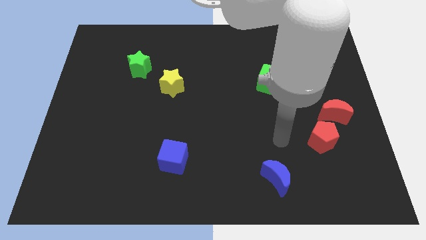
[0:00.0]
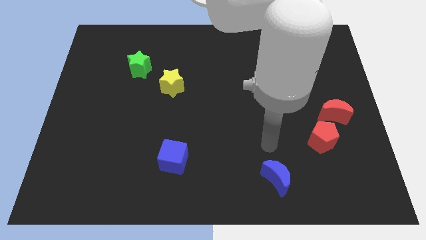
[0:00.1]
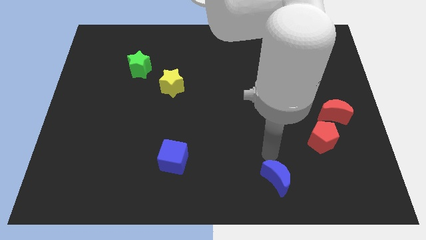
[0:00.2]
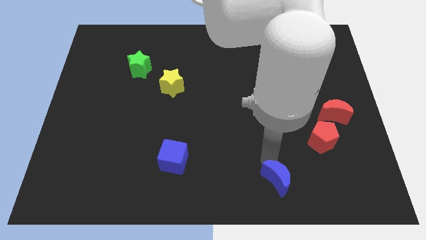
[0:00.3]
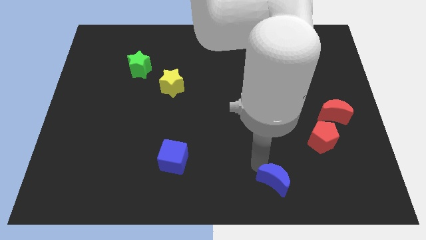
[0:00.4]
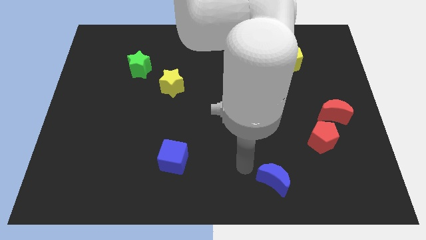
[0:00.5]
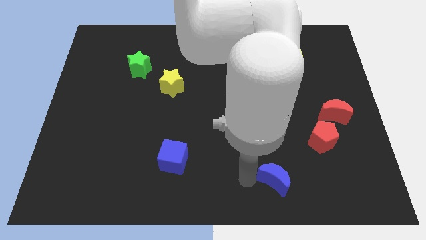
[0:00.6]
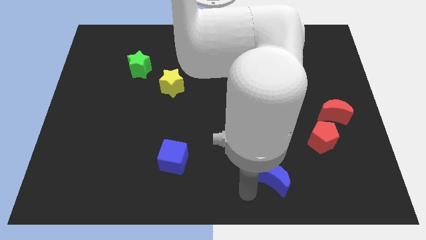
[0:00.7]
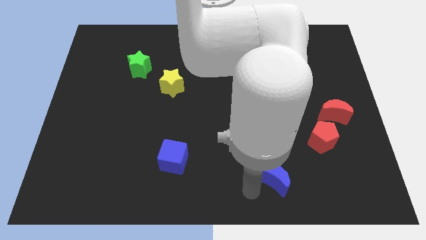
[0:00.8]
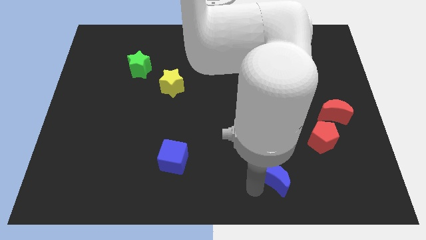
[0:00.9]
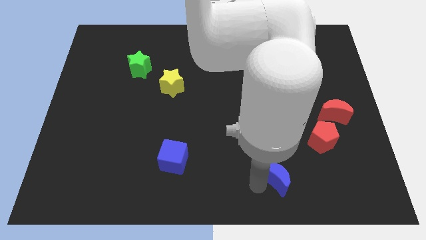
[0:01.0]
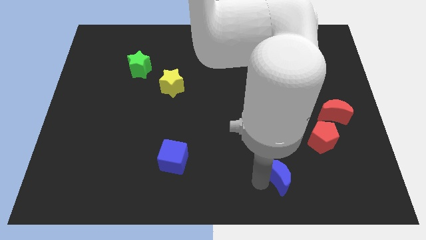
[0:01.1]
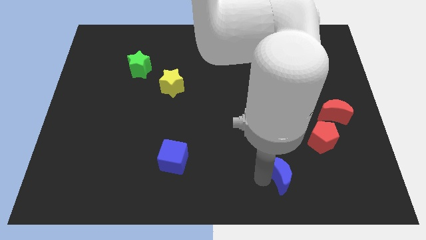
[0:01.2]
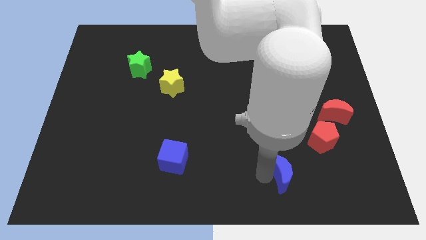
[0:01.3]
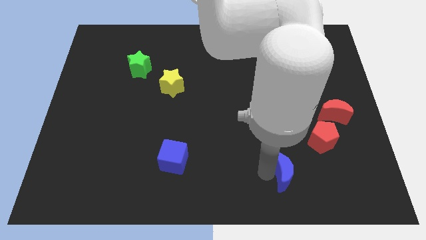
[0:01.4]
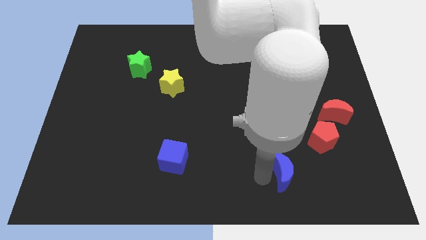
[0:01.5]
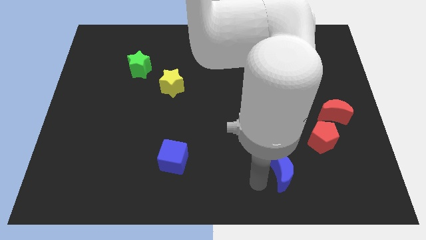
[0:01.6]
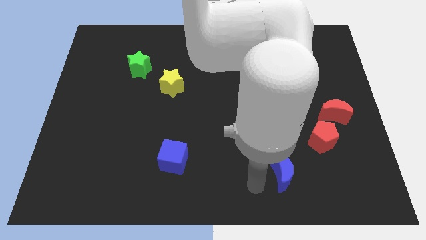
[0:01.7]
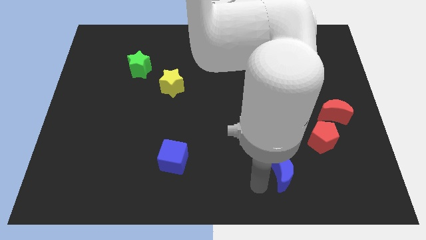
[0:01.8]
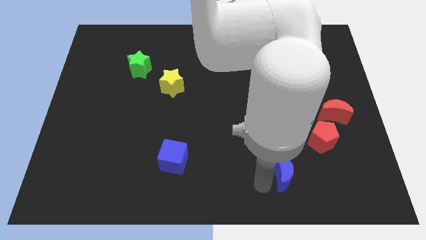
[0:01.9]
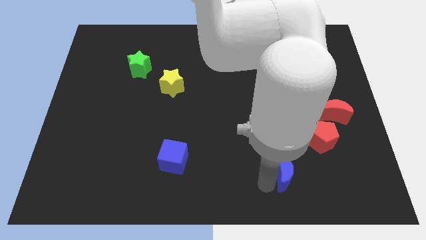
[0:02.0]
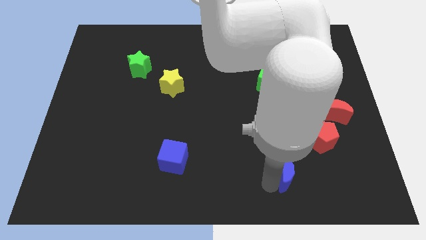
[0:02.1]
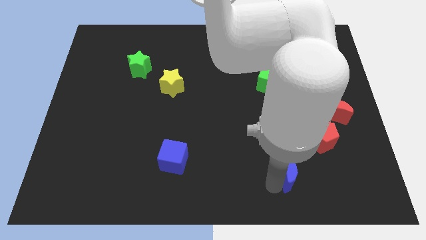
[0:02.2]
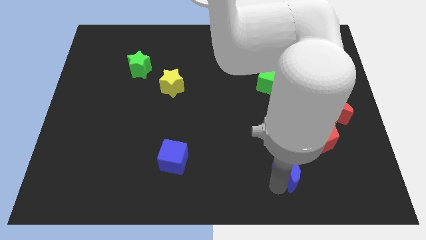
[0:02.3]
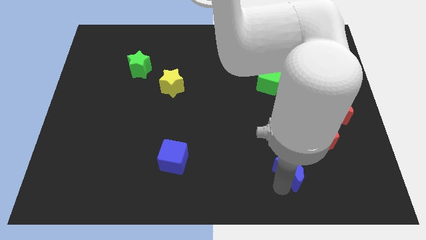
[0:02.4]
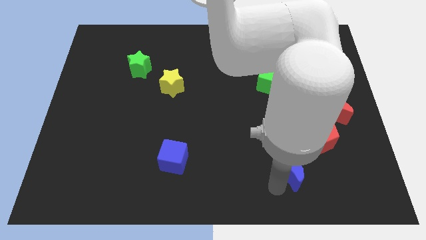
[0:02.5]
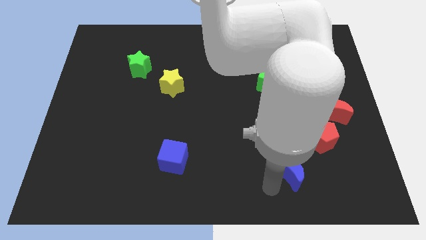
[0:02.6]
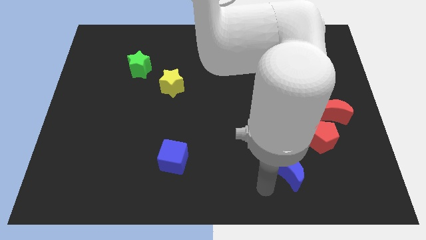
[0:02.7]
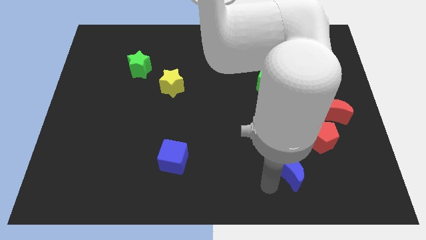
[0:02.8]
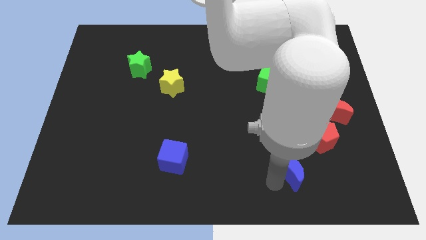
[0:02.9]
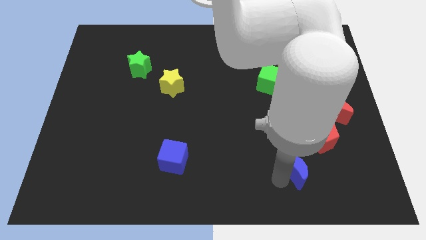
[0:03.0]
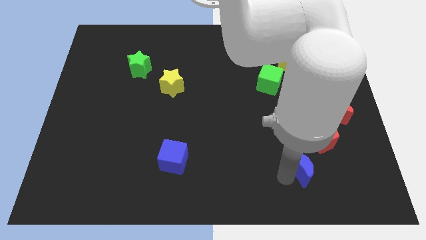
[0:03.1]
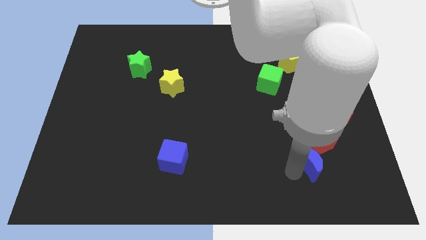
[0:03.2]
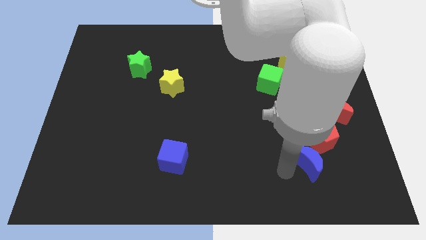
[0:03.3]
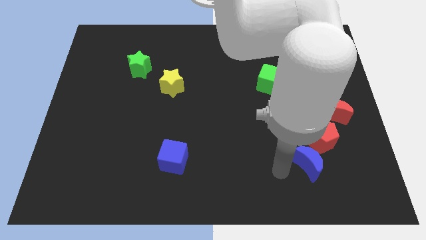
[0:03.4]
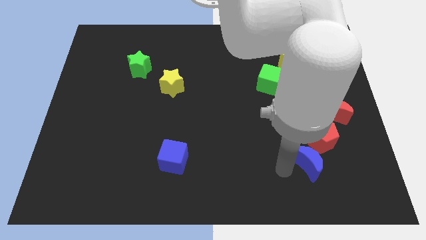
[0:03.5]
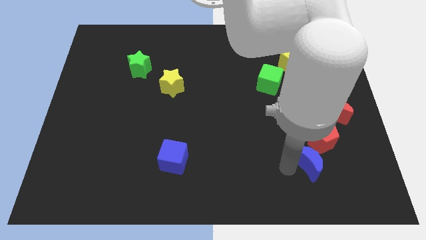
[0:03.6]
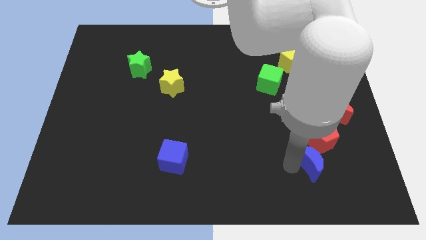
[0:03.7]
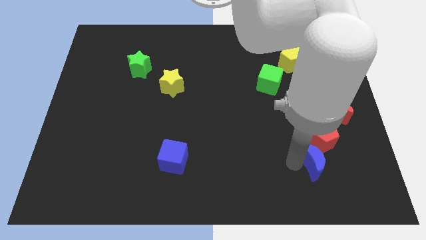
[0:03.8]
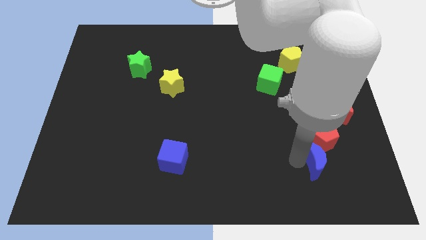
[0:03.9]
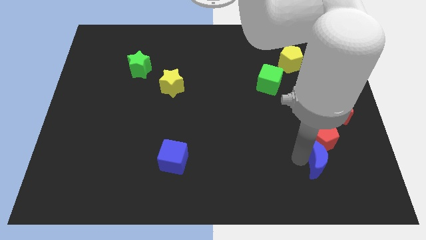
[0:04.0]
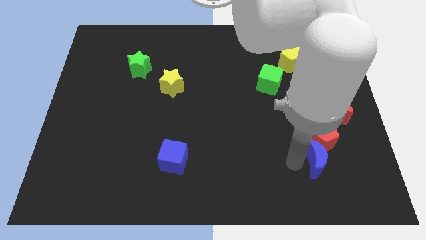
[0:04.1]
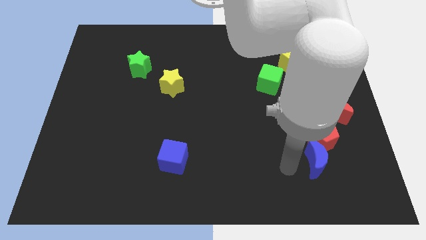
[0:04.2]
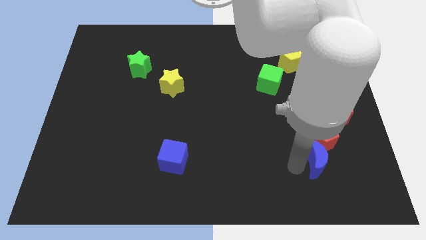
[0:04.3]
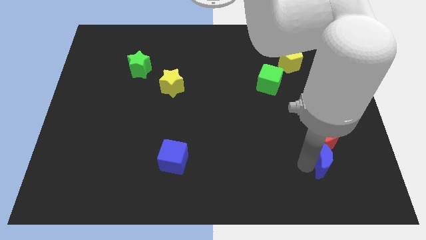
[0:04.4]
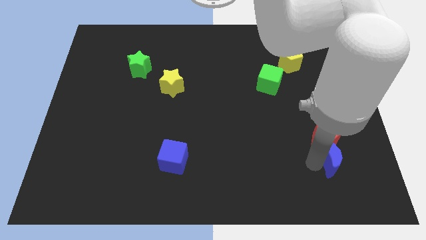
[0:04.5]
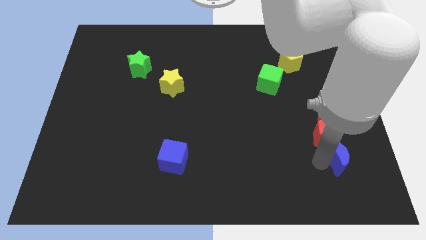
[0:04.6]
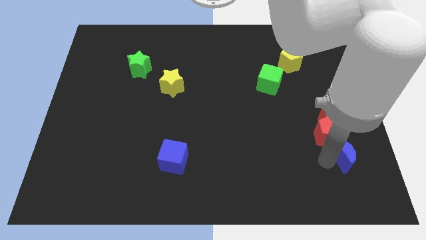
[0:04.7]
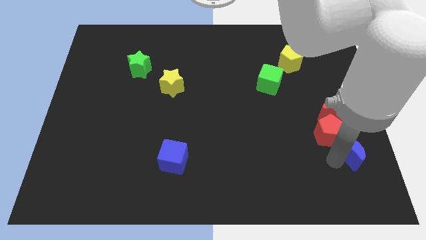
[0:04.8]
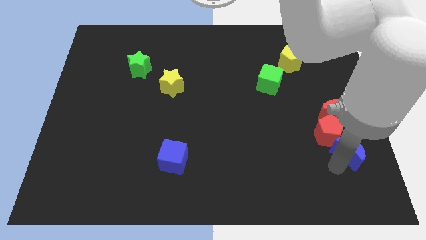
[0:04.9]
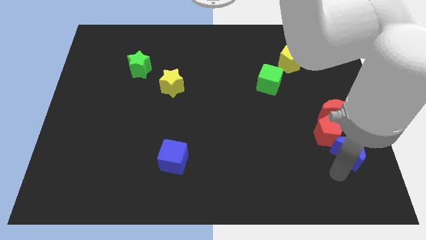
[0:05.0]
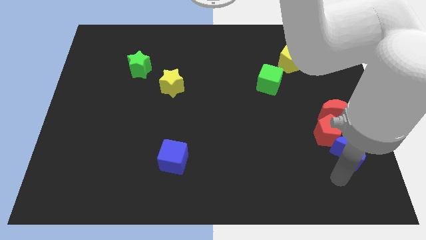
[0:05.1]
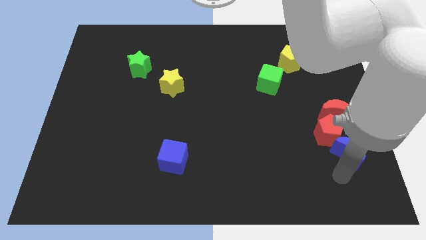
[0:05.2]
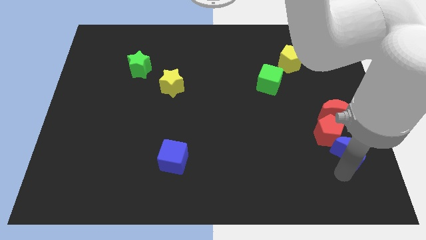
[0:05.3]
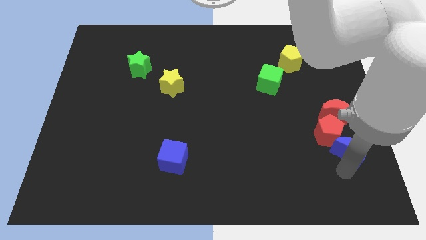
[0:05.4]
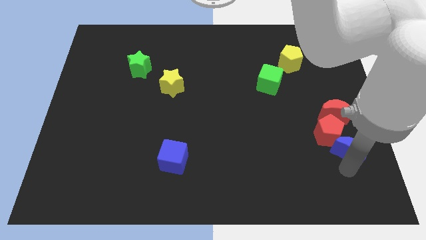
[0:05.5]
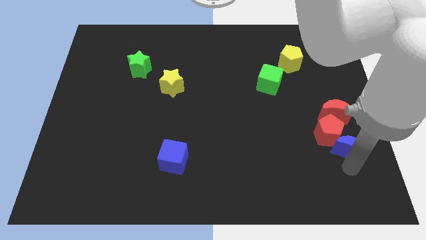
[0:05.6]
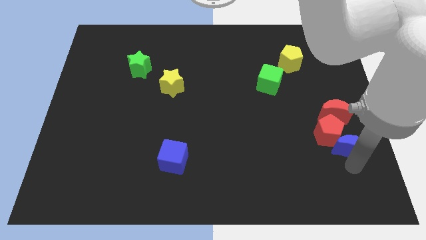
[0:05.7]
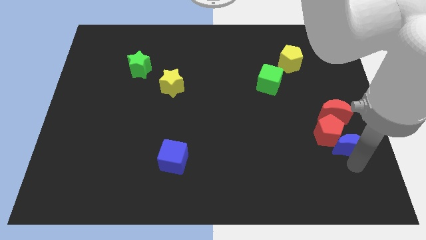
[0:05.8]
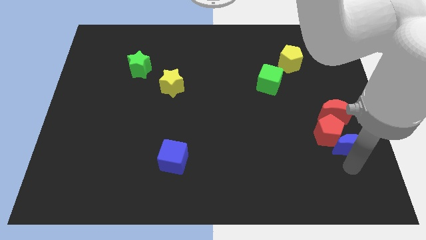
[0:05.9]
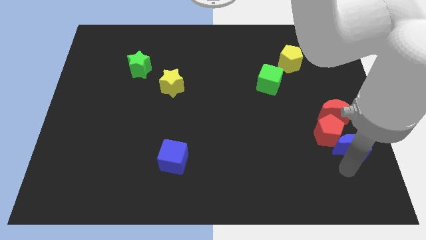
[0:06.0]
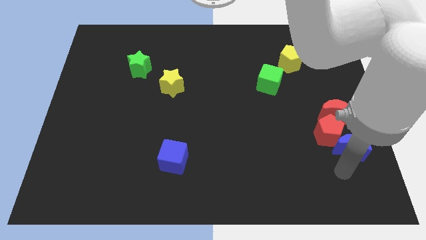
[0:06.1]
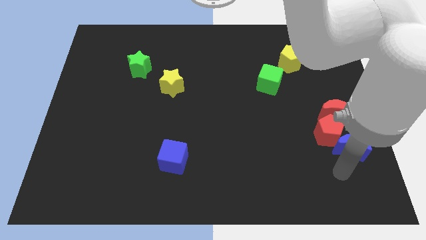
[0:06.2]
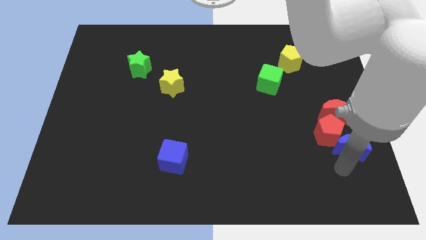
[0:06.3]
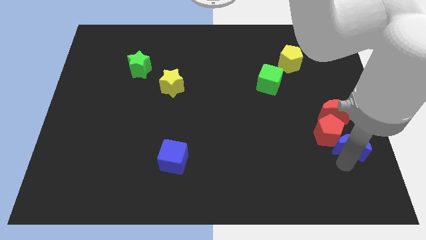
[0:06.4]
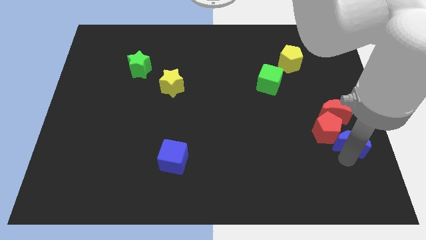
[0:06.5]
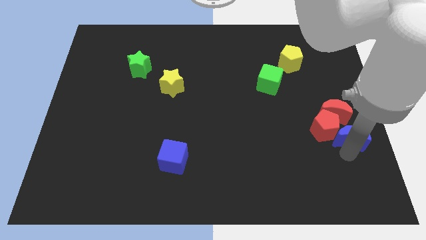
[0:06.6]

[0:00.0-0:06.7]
push the blue moon to the right side of the board
